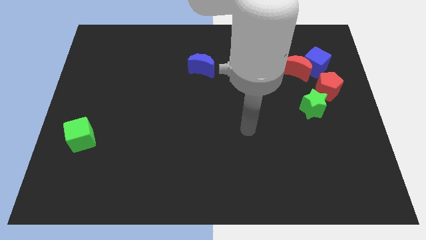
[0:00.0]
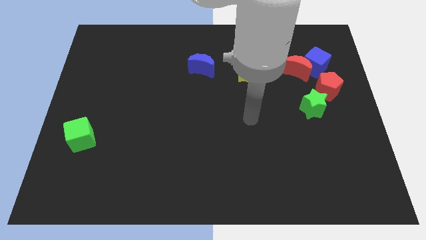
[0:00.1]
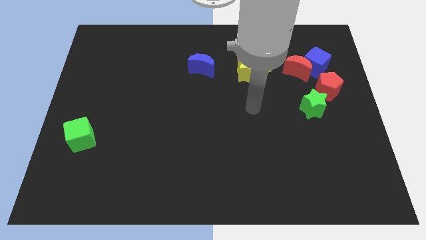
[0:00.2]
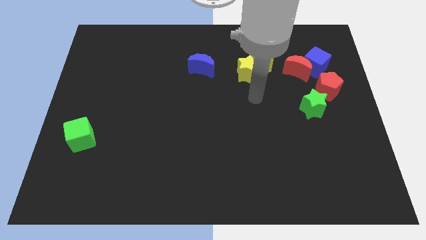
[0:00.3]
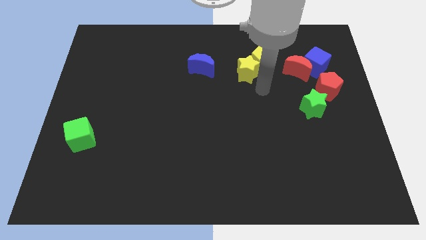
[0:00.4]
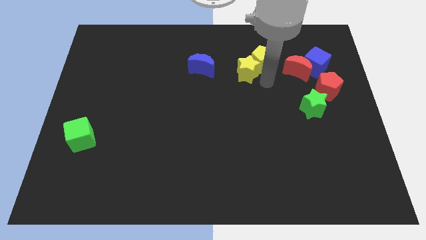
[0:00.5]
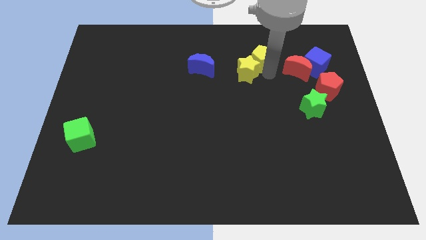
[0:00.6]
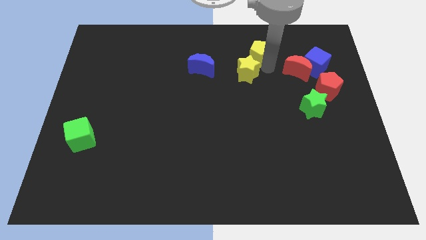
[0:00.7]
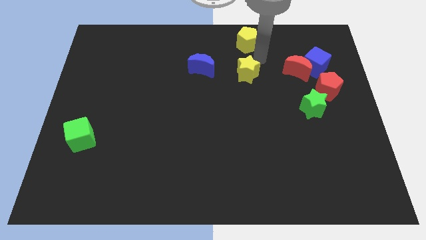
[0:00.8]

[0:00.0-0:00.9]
separate the yellow star from the yellow pentagon

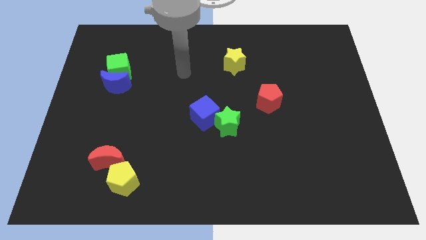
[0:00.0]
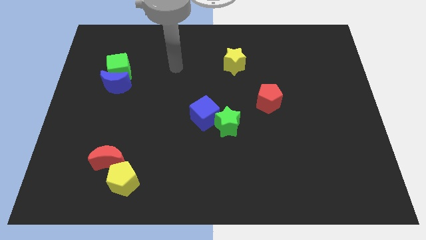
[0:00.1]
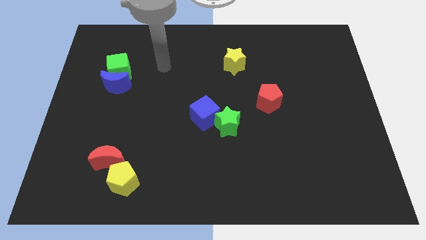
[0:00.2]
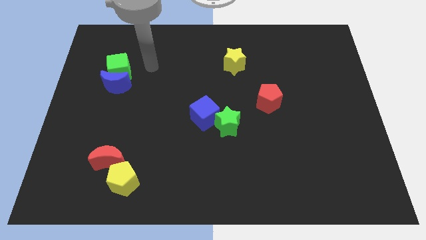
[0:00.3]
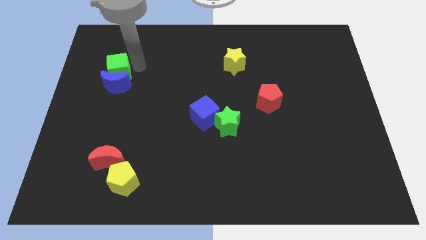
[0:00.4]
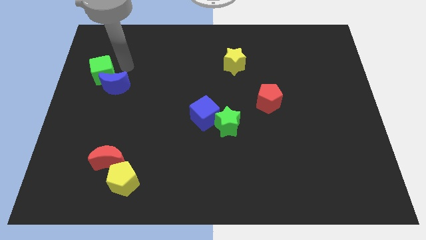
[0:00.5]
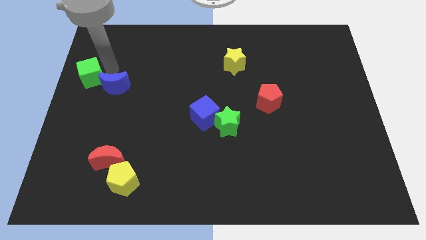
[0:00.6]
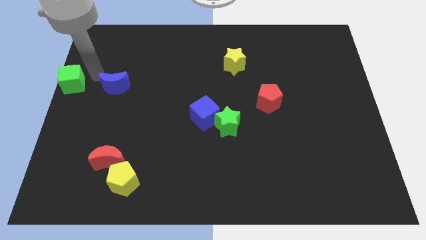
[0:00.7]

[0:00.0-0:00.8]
move the blue moon away from the green cube

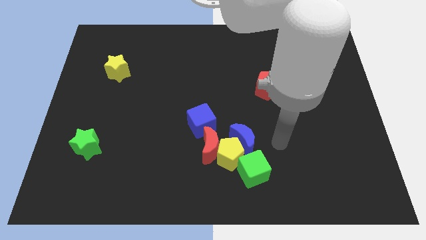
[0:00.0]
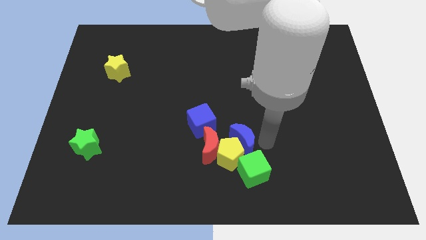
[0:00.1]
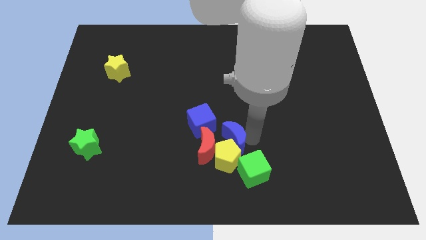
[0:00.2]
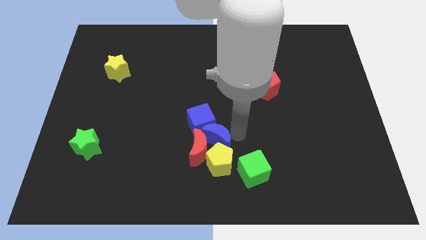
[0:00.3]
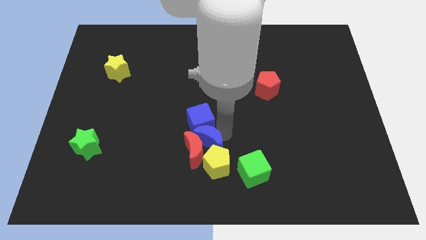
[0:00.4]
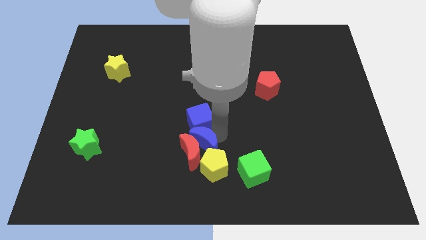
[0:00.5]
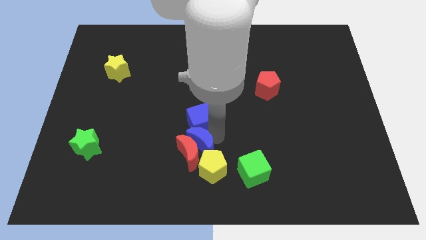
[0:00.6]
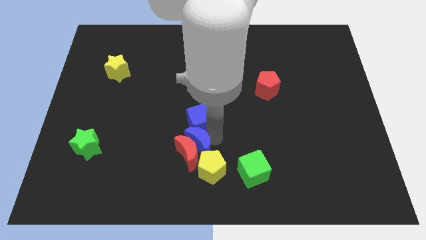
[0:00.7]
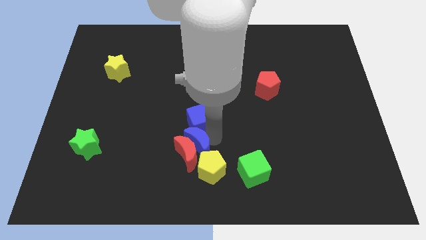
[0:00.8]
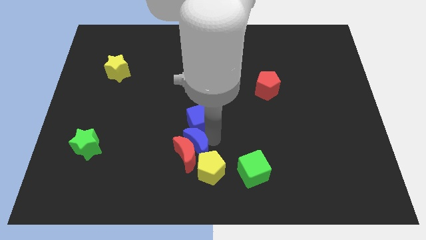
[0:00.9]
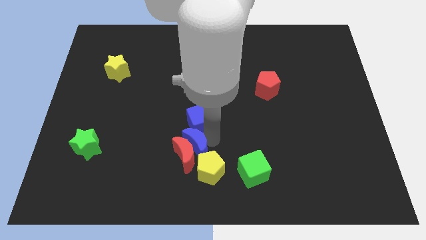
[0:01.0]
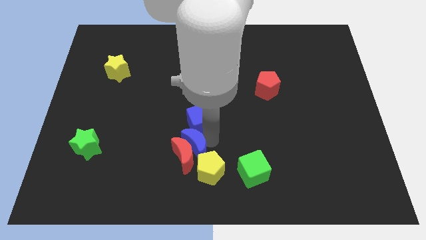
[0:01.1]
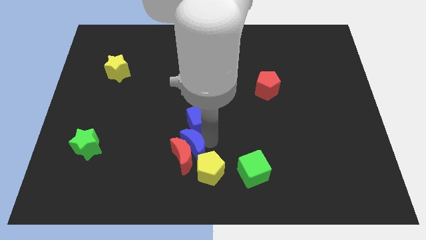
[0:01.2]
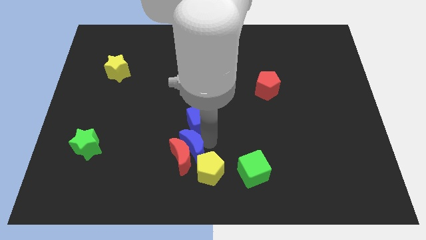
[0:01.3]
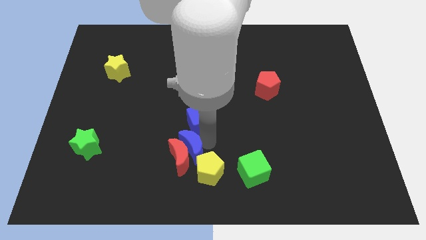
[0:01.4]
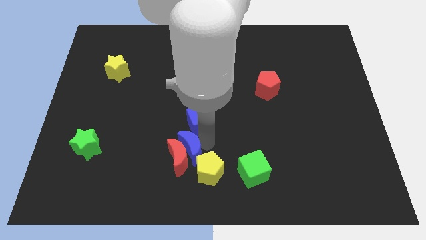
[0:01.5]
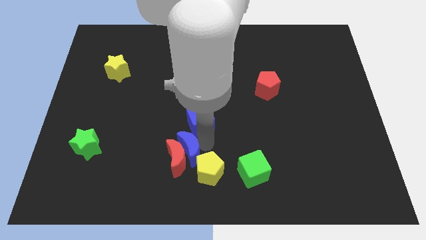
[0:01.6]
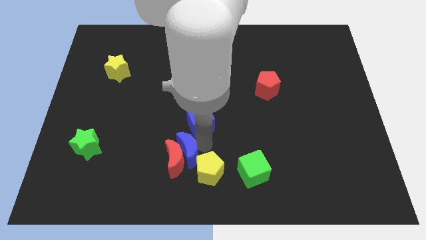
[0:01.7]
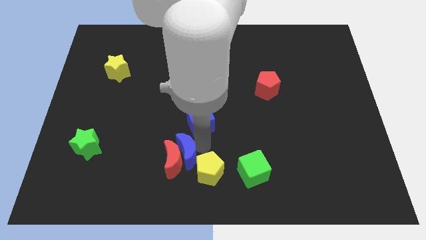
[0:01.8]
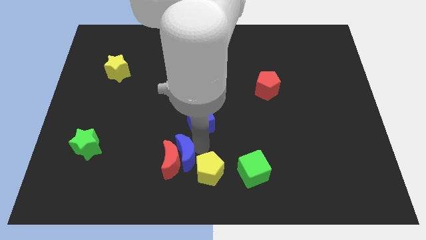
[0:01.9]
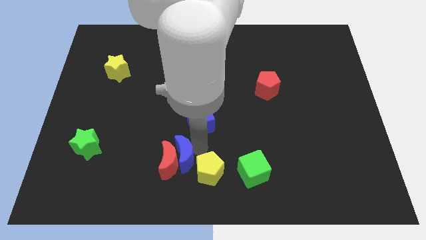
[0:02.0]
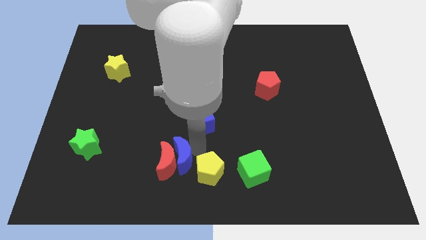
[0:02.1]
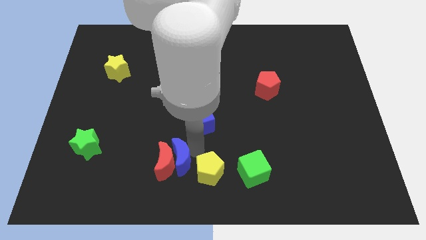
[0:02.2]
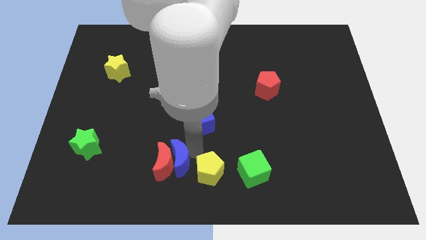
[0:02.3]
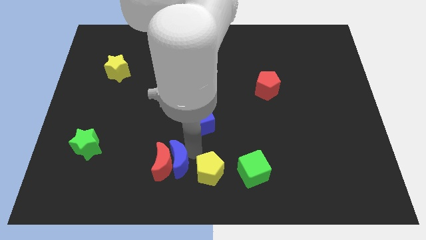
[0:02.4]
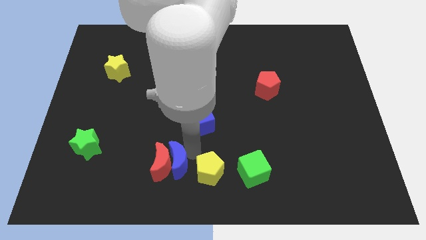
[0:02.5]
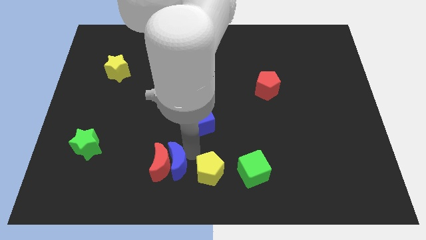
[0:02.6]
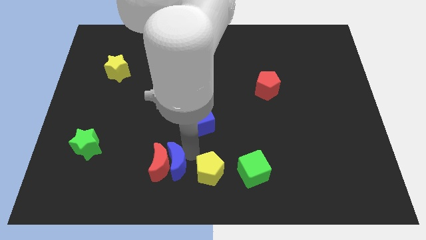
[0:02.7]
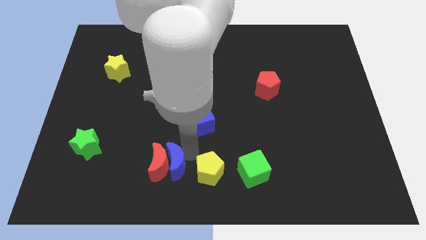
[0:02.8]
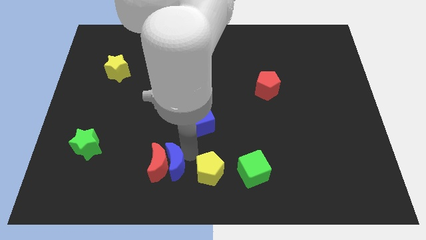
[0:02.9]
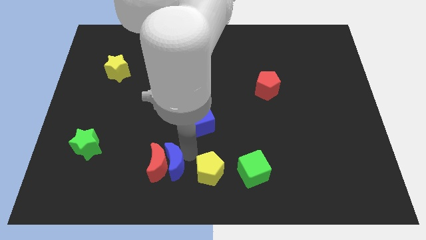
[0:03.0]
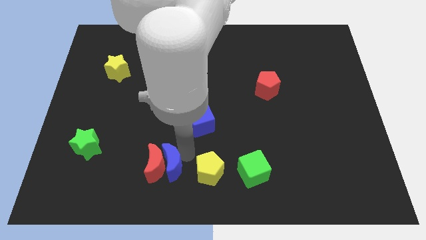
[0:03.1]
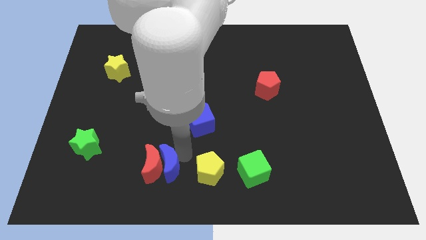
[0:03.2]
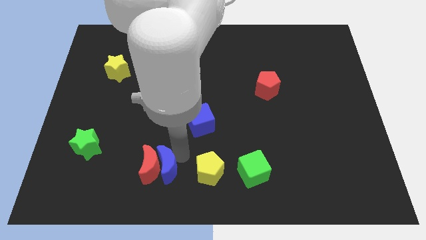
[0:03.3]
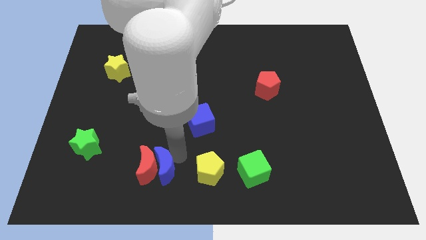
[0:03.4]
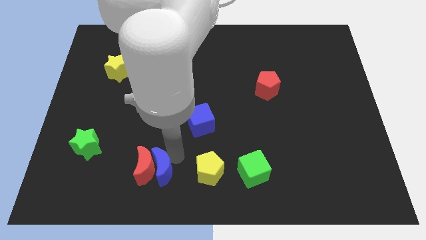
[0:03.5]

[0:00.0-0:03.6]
separate the red moon from the clump

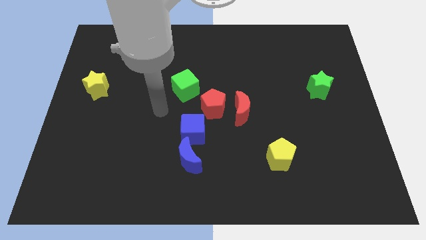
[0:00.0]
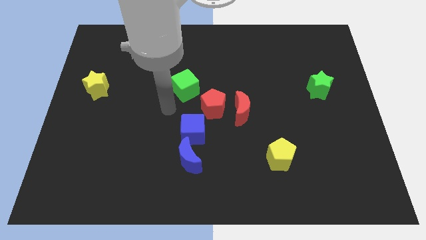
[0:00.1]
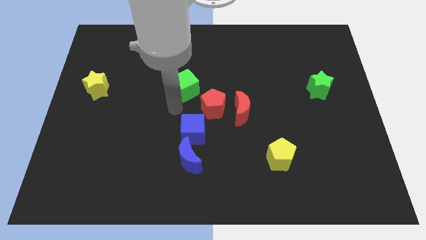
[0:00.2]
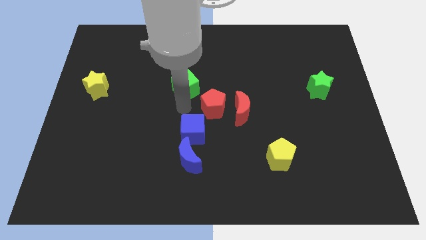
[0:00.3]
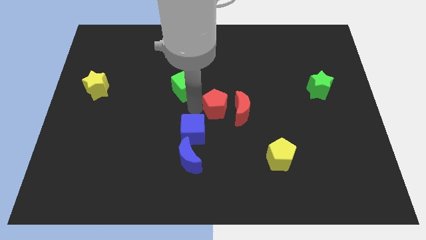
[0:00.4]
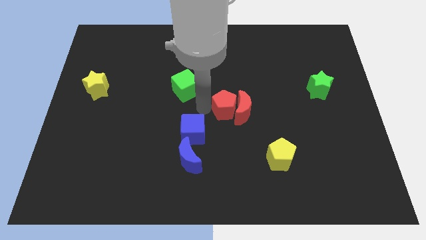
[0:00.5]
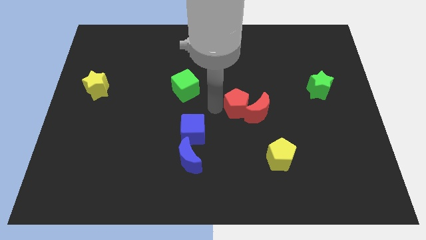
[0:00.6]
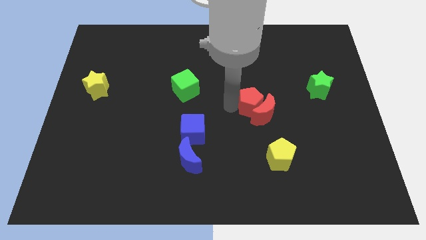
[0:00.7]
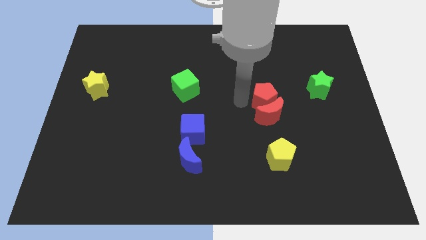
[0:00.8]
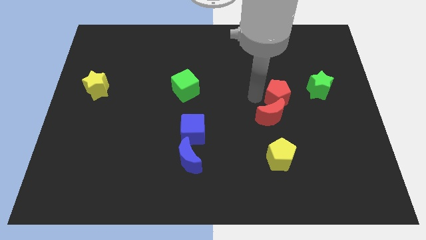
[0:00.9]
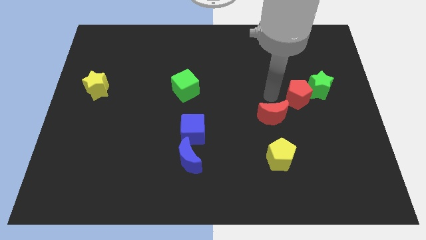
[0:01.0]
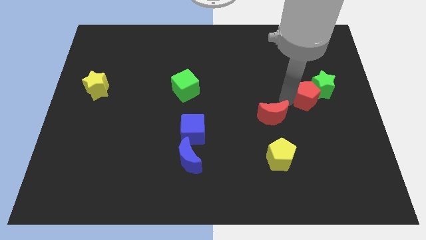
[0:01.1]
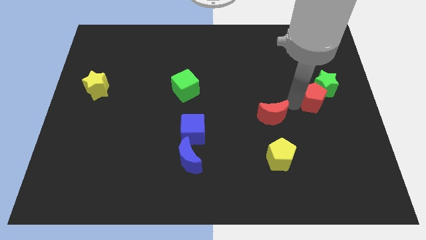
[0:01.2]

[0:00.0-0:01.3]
separate the red moon from the red pentagon

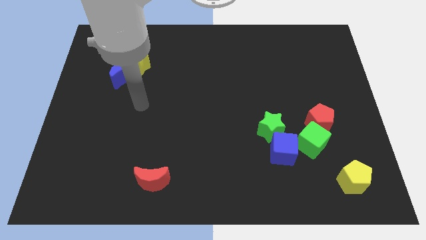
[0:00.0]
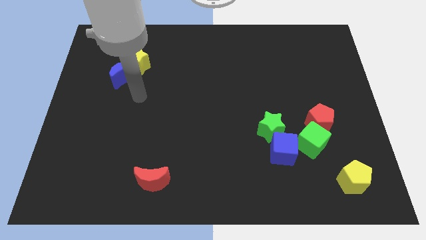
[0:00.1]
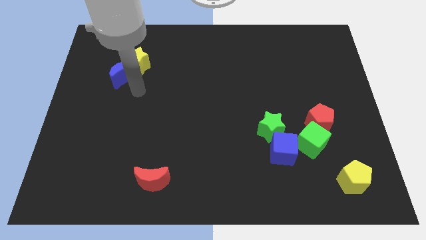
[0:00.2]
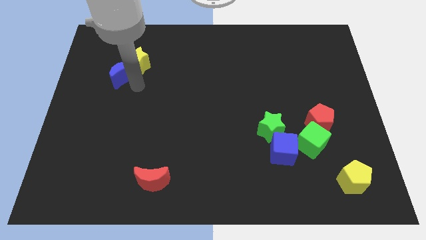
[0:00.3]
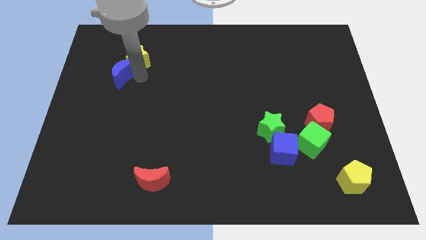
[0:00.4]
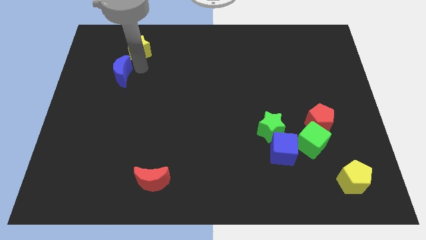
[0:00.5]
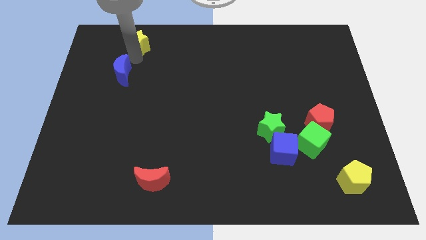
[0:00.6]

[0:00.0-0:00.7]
pull the blue moon apart from the yellow star

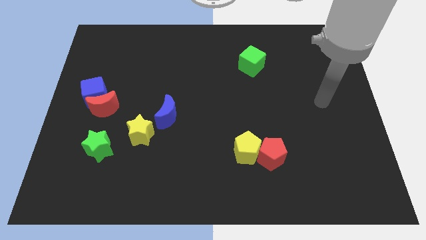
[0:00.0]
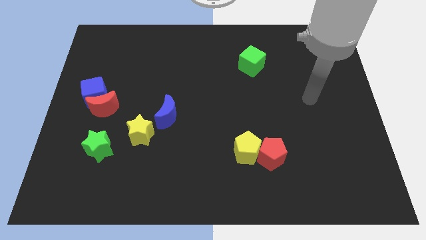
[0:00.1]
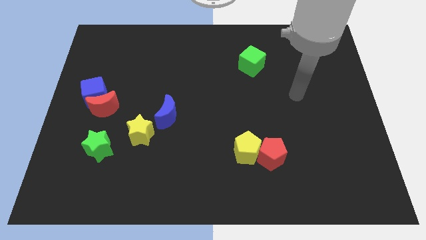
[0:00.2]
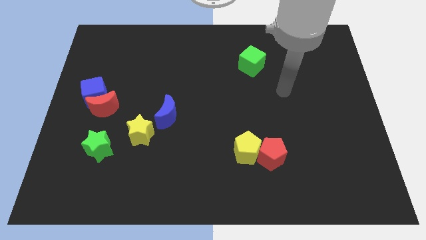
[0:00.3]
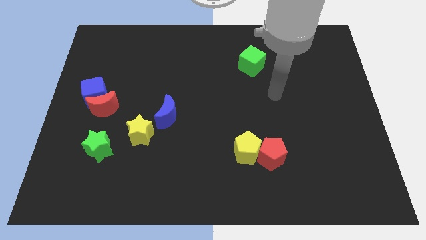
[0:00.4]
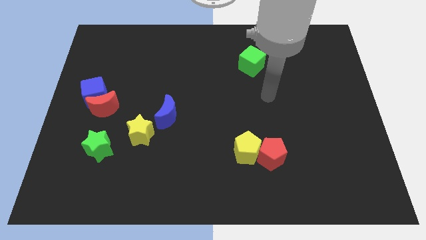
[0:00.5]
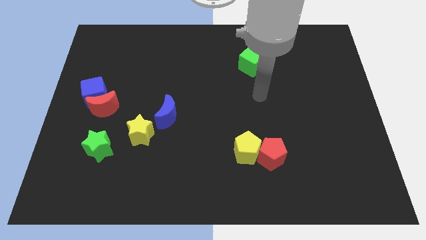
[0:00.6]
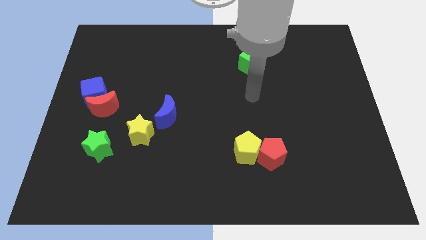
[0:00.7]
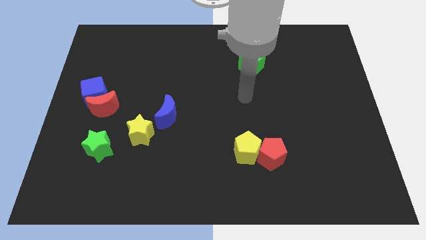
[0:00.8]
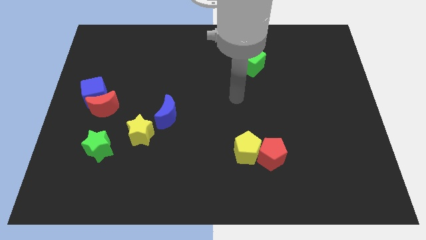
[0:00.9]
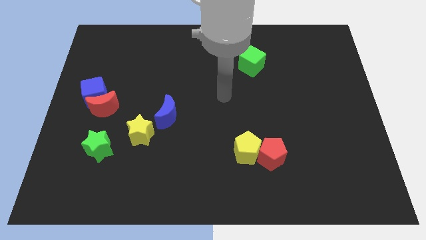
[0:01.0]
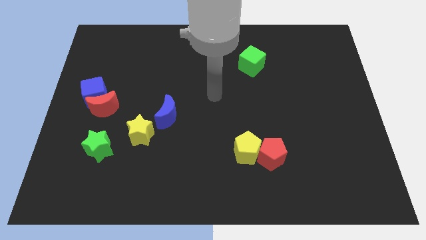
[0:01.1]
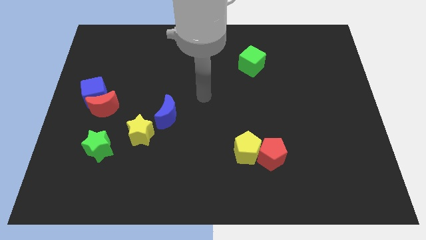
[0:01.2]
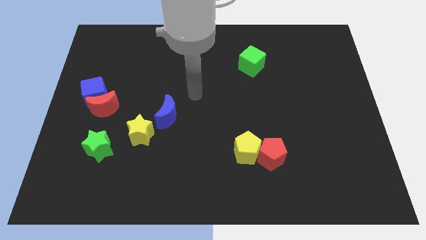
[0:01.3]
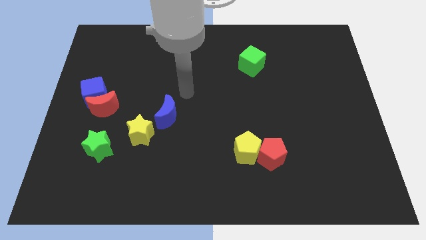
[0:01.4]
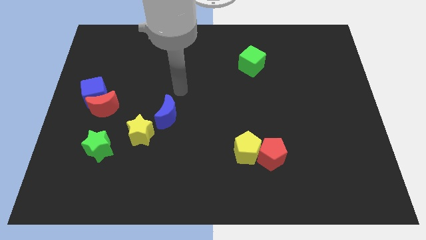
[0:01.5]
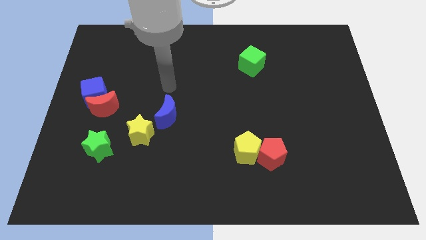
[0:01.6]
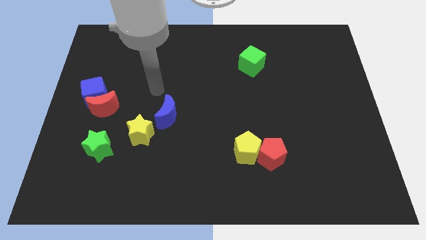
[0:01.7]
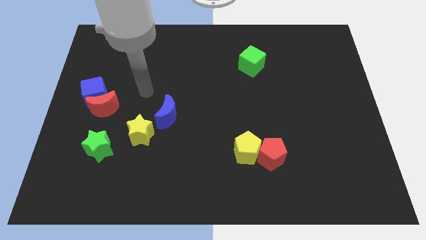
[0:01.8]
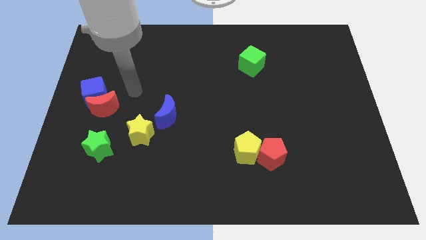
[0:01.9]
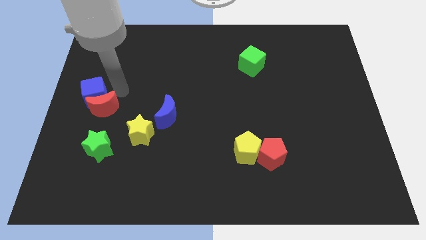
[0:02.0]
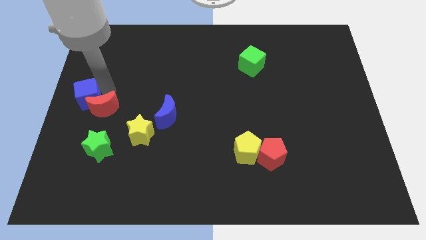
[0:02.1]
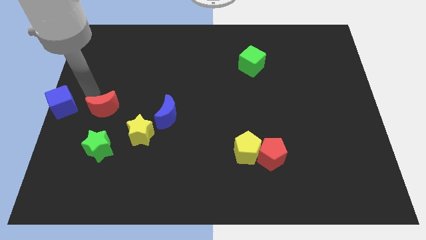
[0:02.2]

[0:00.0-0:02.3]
move the red moon away from the blue cube
